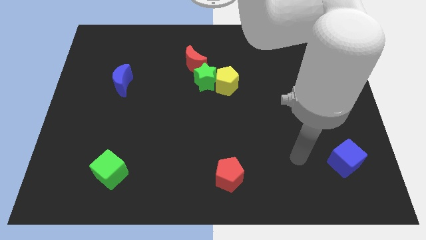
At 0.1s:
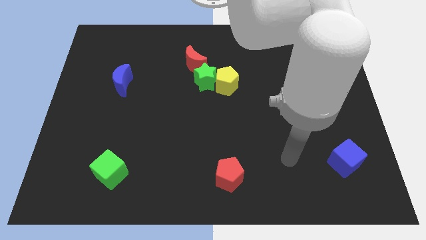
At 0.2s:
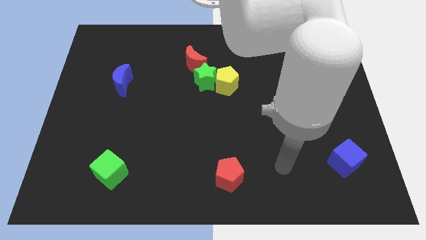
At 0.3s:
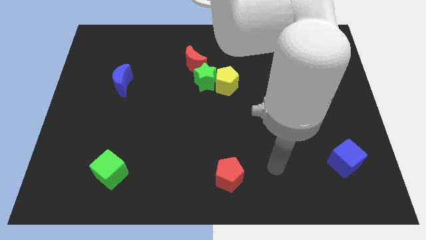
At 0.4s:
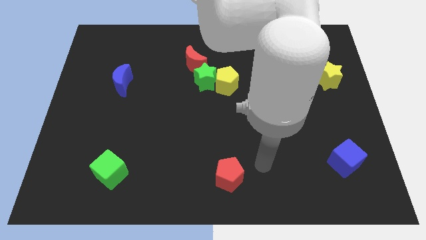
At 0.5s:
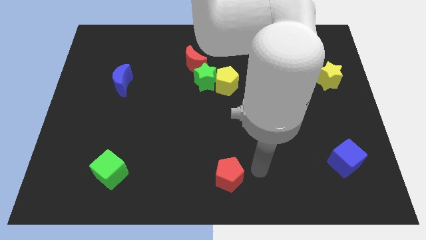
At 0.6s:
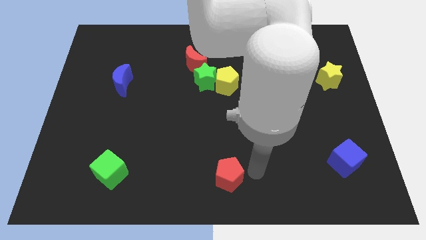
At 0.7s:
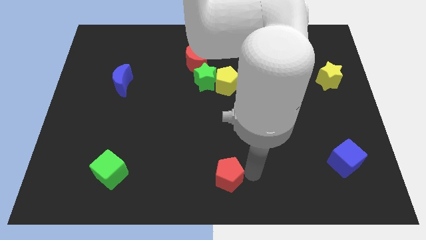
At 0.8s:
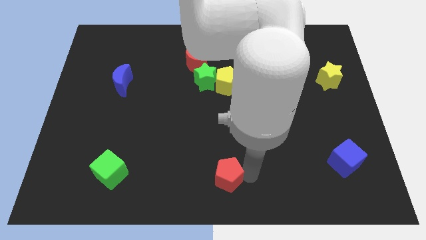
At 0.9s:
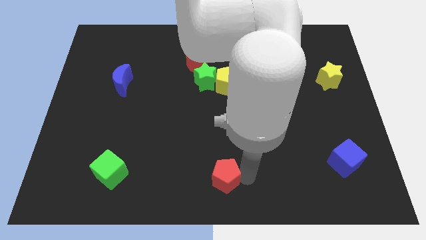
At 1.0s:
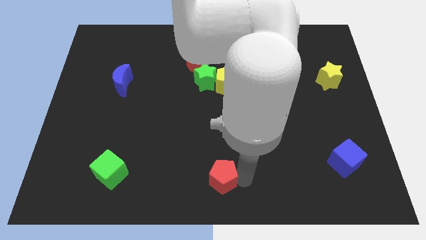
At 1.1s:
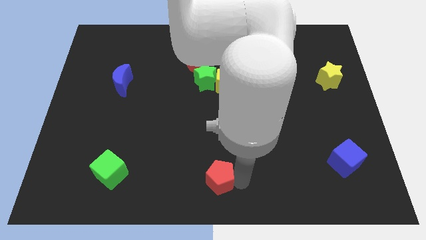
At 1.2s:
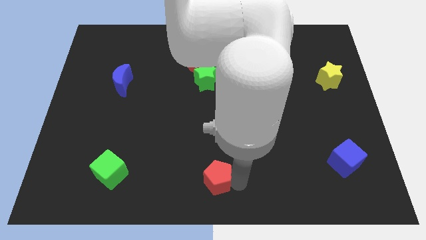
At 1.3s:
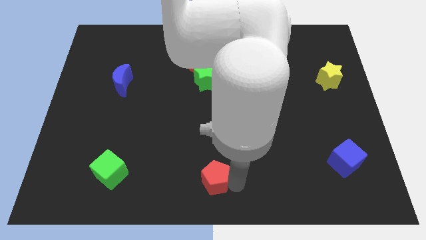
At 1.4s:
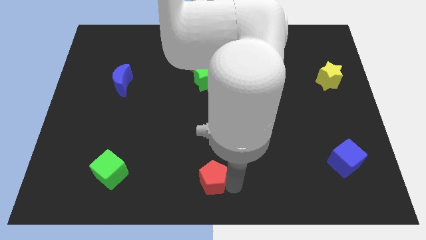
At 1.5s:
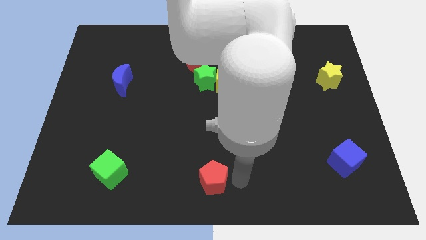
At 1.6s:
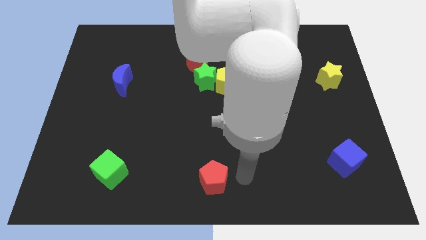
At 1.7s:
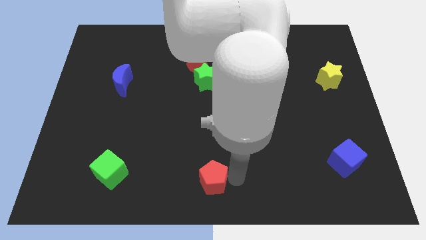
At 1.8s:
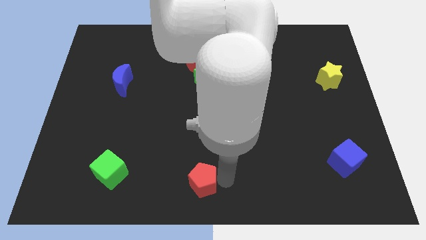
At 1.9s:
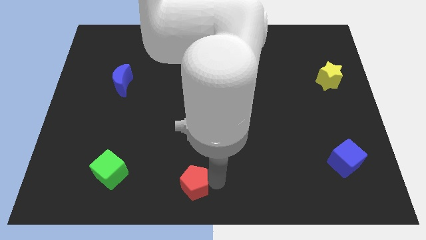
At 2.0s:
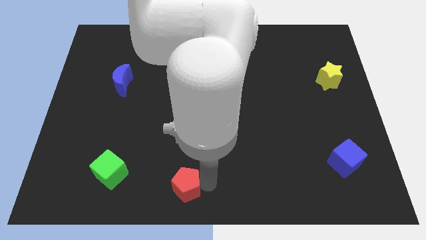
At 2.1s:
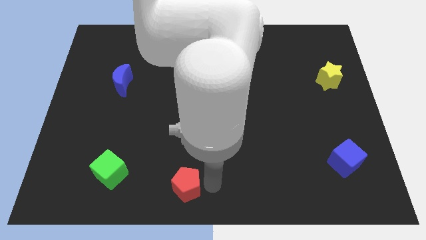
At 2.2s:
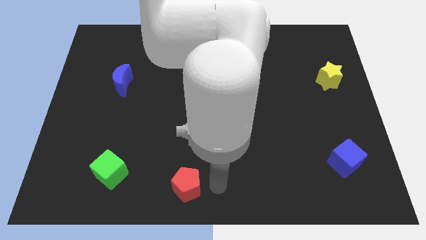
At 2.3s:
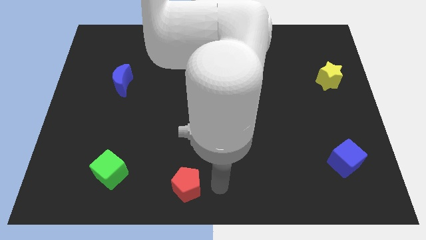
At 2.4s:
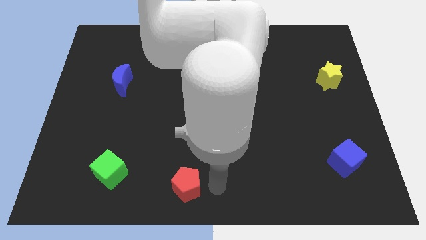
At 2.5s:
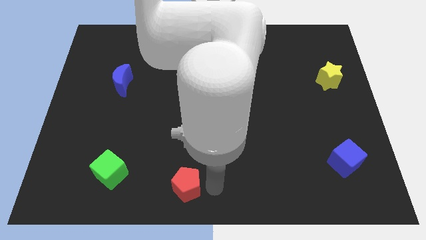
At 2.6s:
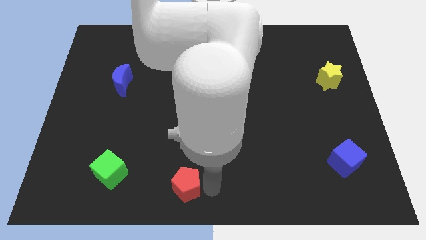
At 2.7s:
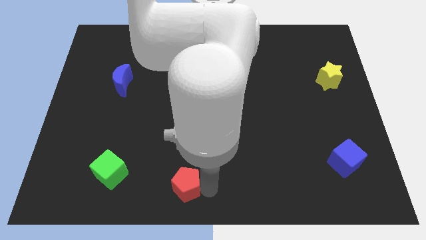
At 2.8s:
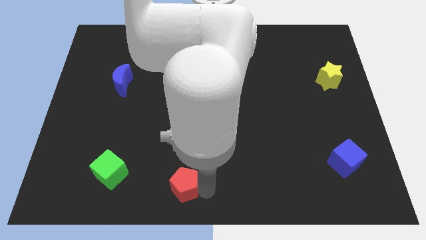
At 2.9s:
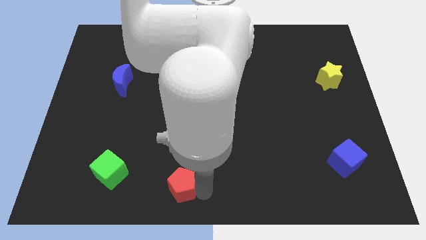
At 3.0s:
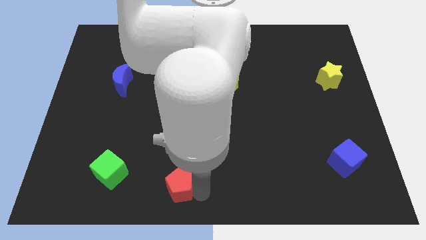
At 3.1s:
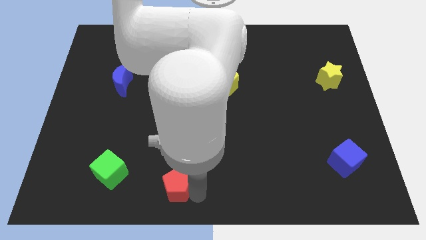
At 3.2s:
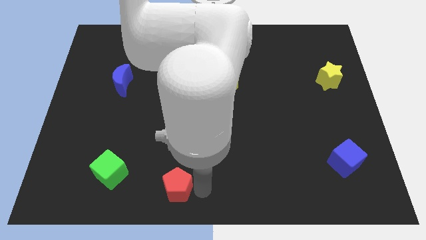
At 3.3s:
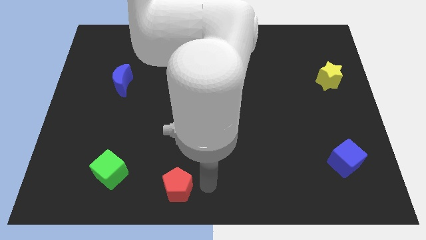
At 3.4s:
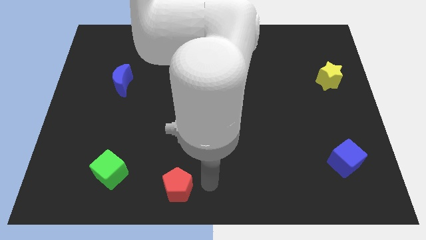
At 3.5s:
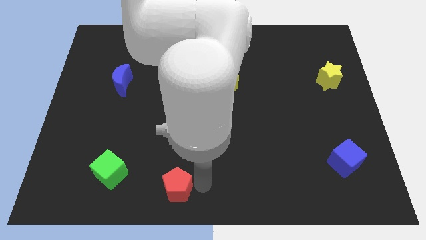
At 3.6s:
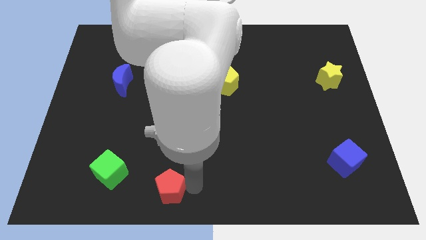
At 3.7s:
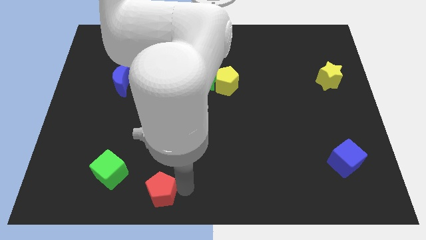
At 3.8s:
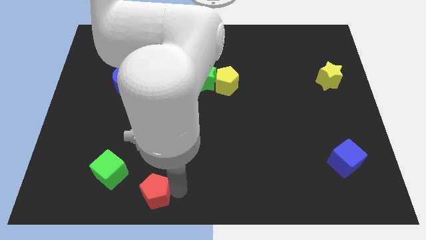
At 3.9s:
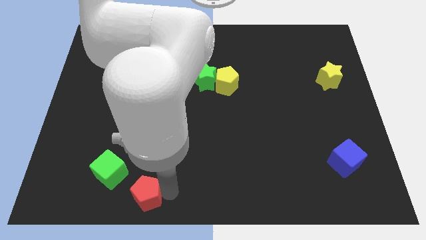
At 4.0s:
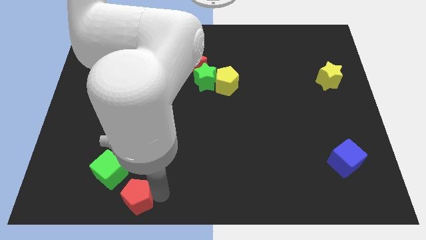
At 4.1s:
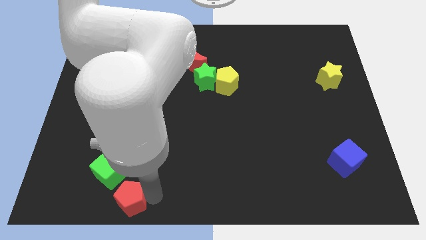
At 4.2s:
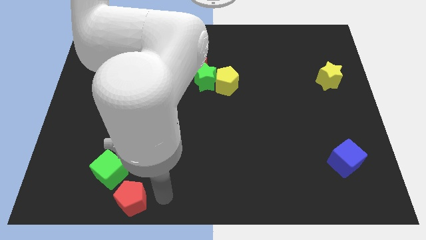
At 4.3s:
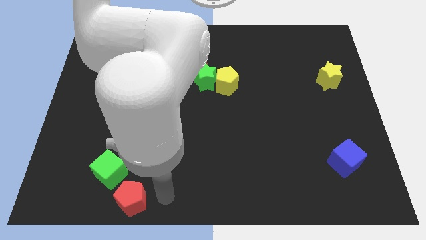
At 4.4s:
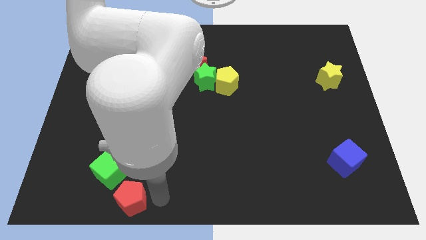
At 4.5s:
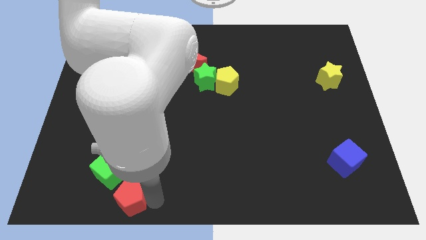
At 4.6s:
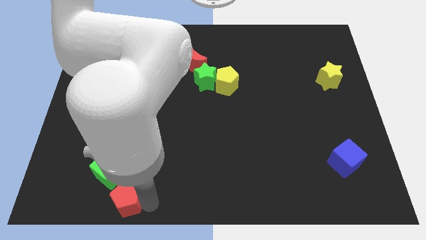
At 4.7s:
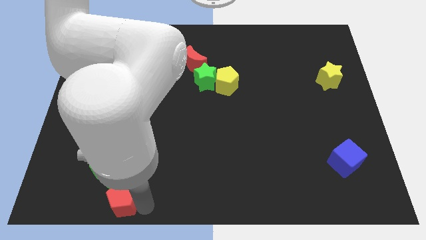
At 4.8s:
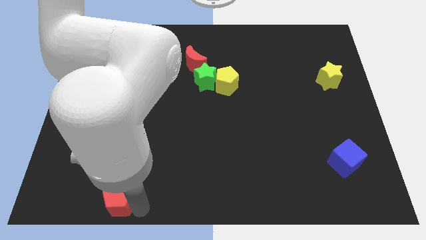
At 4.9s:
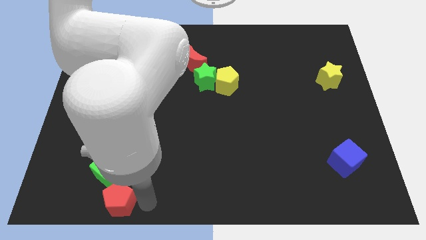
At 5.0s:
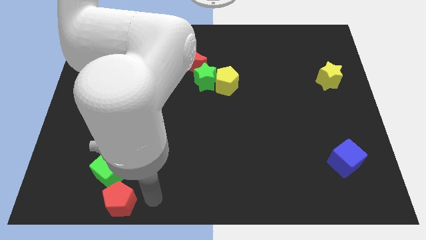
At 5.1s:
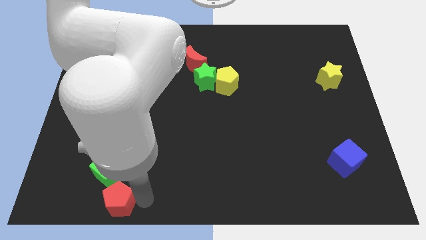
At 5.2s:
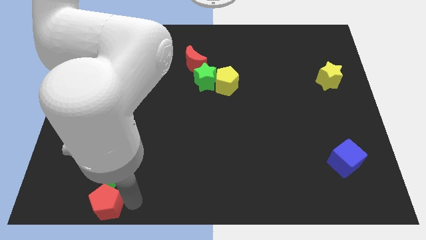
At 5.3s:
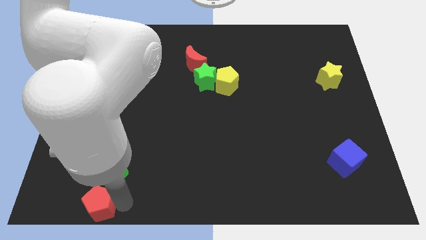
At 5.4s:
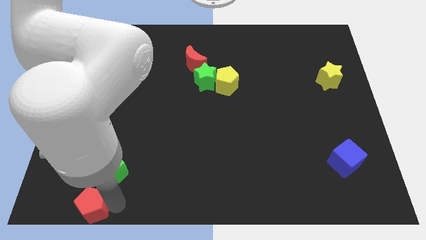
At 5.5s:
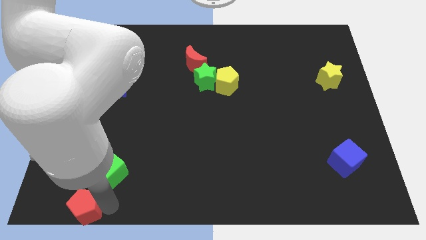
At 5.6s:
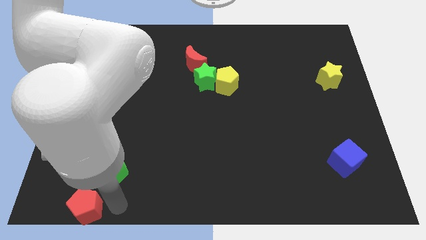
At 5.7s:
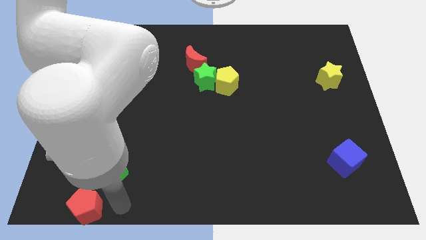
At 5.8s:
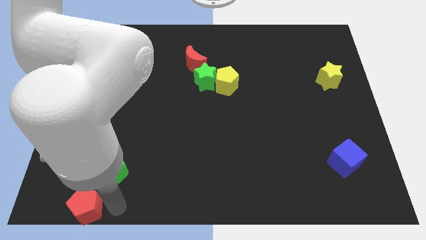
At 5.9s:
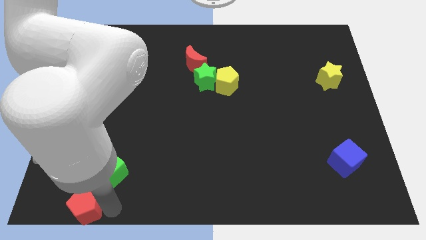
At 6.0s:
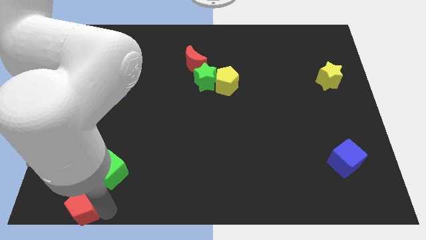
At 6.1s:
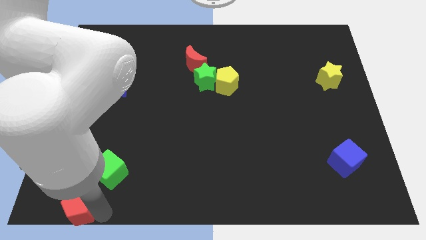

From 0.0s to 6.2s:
put the red pentagon to the bottom left
